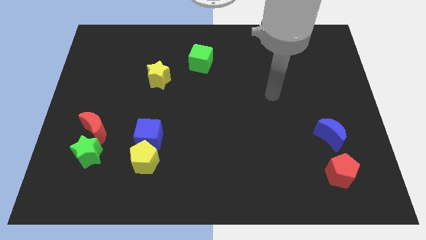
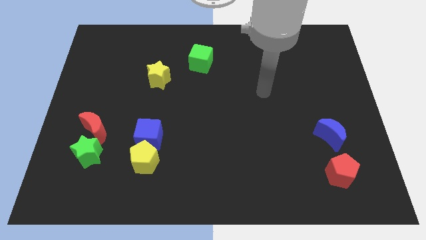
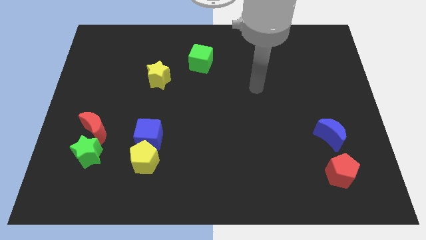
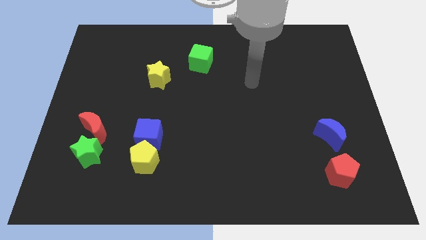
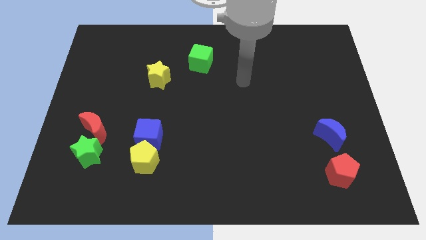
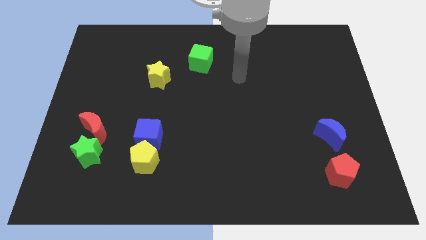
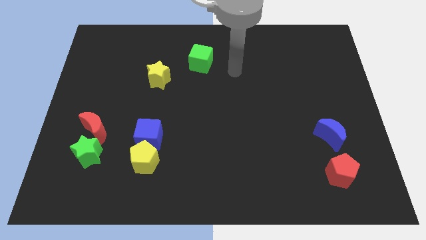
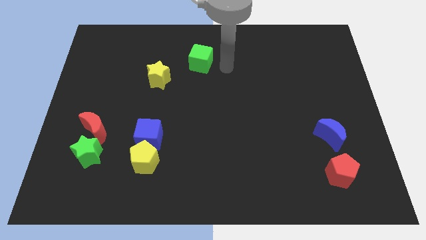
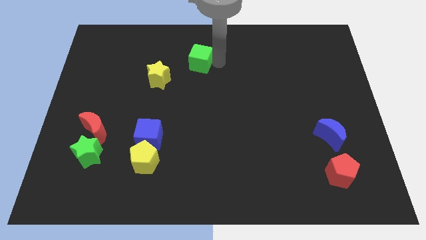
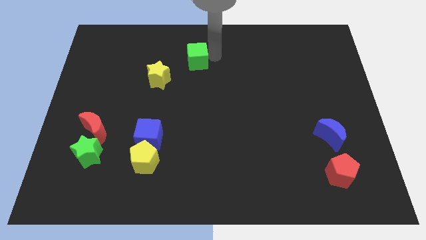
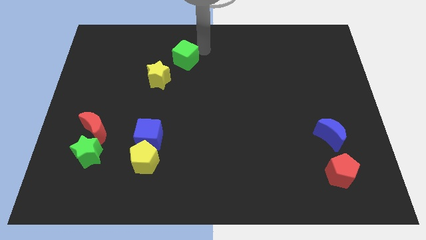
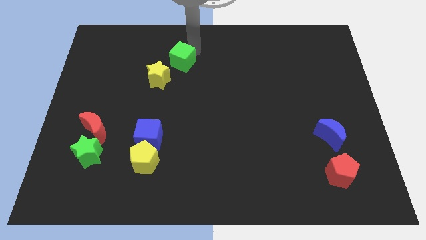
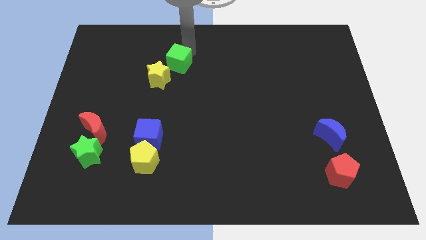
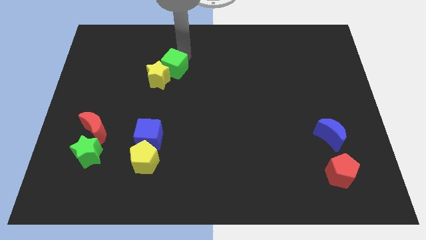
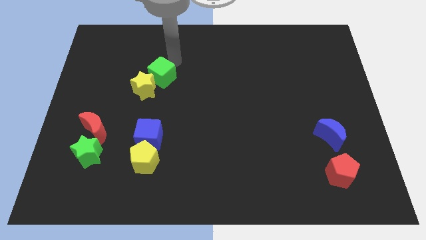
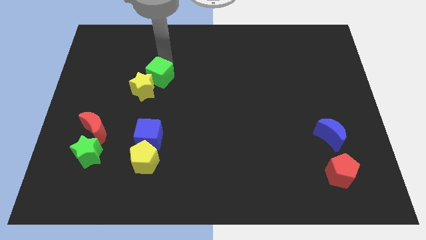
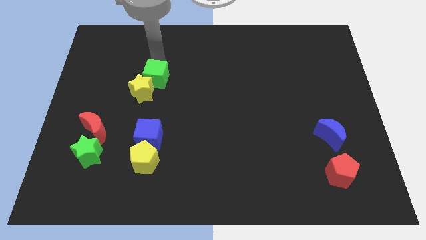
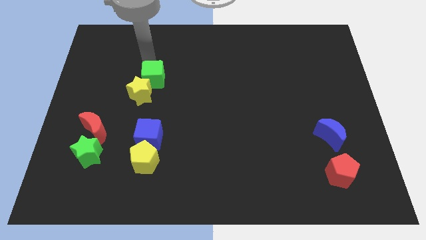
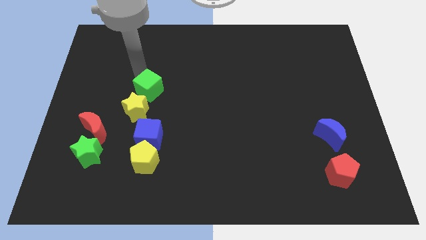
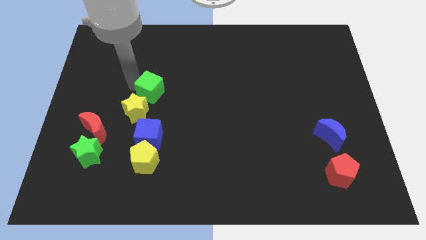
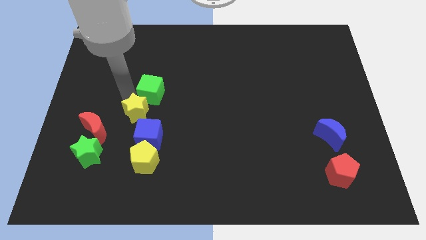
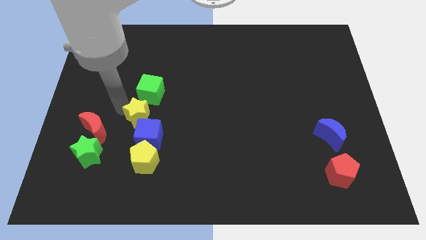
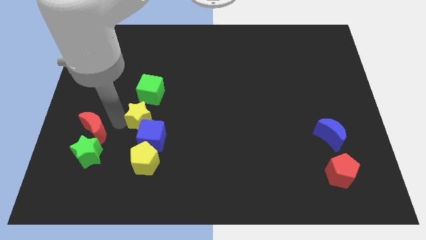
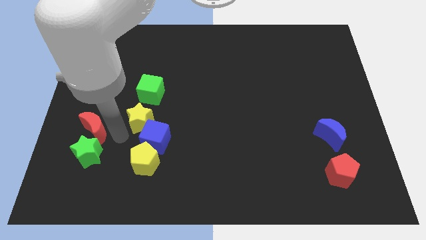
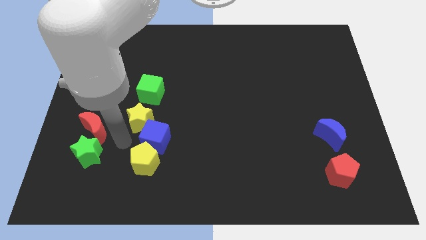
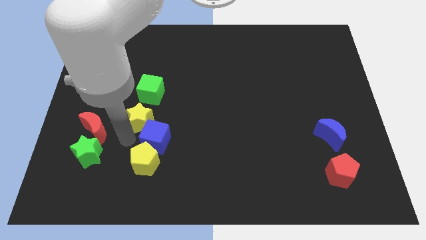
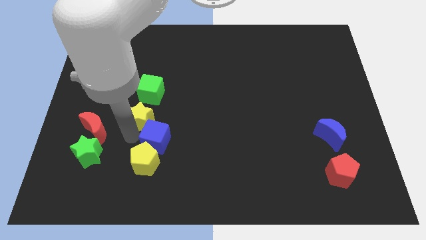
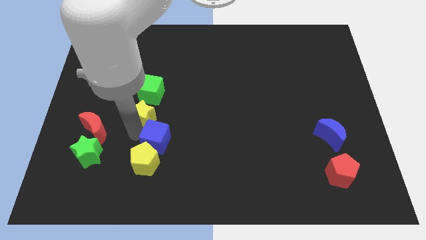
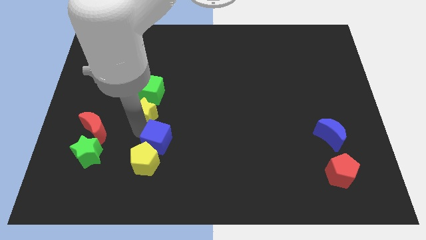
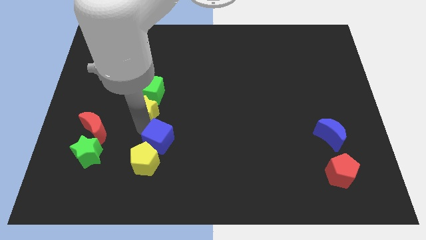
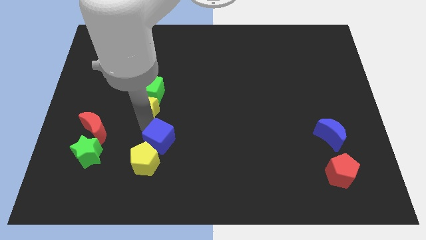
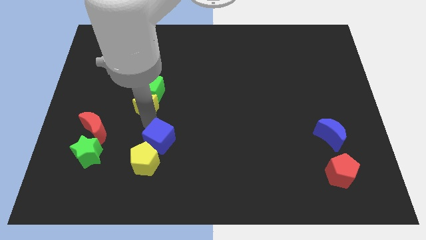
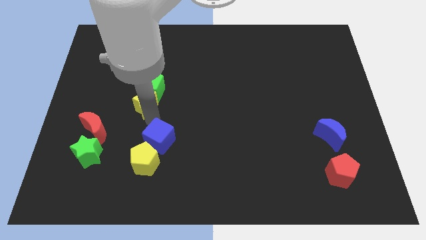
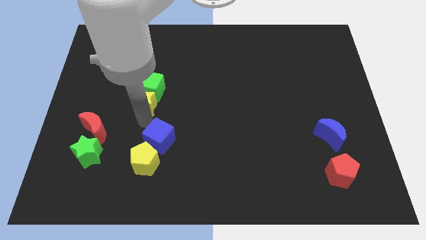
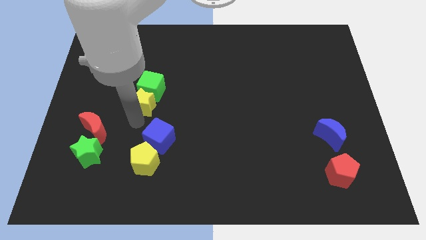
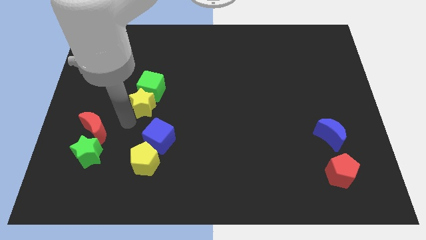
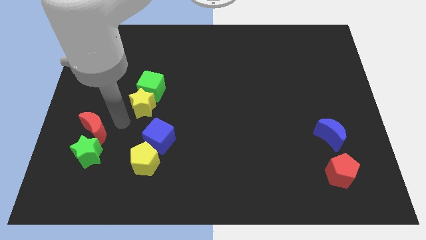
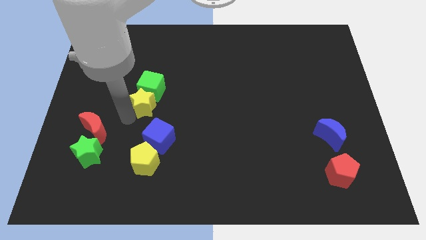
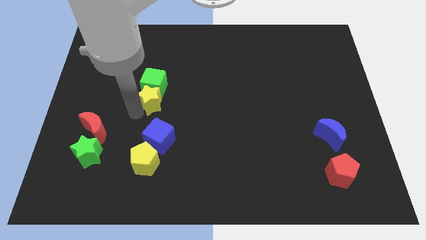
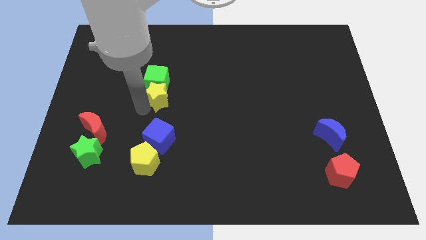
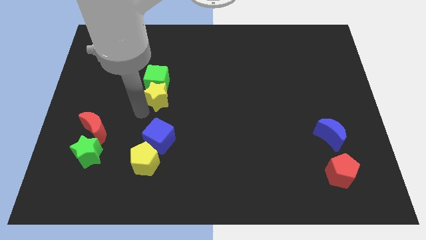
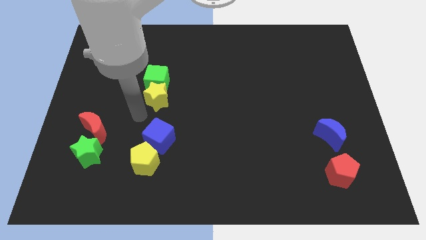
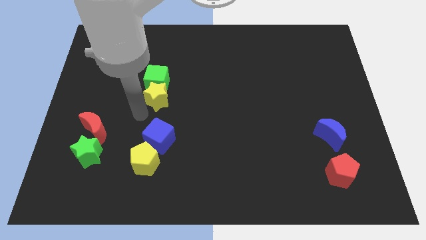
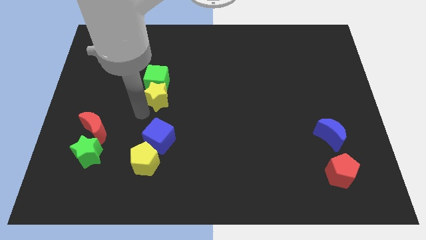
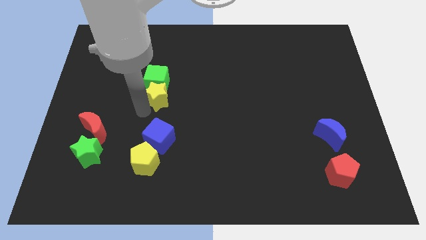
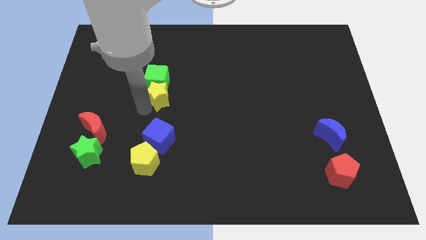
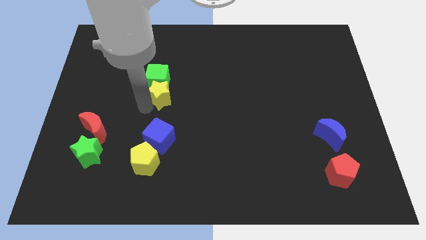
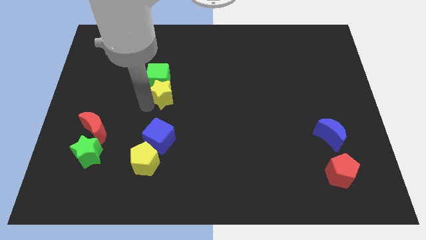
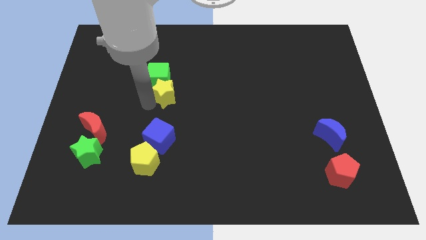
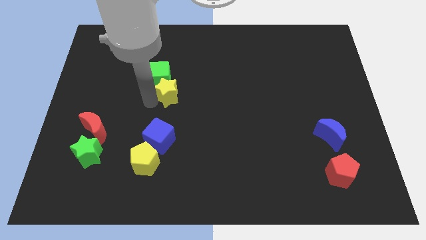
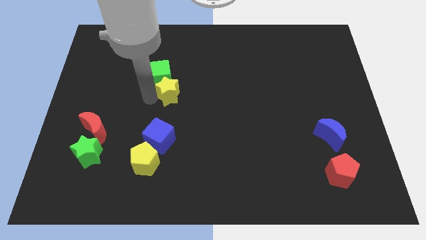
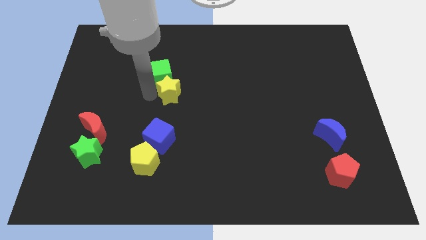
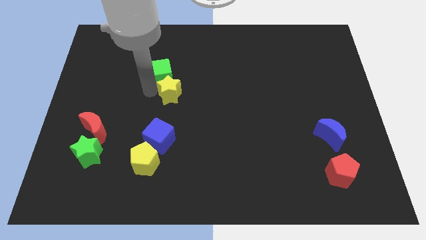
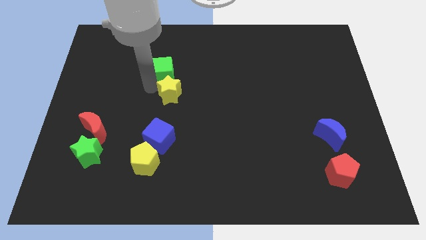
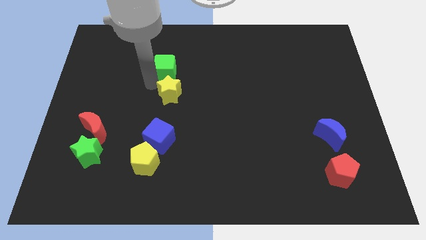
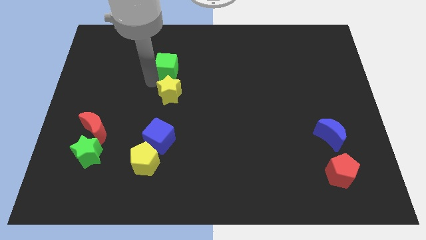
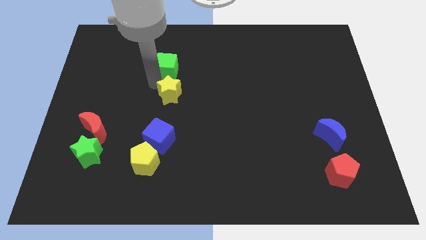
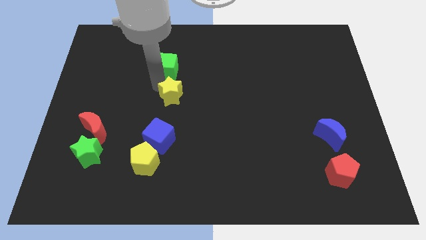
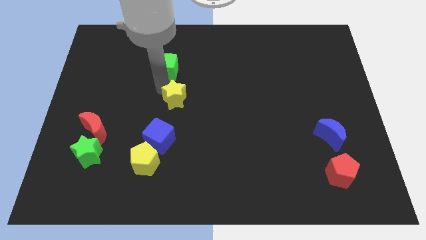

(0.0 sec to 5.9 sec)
slide the yellow star slightly diagonally downwards and right

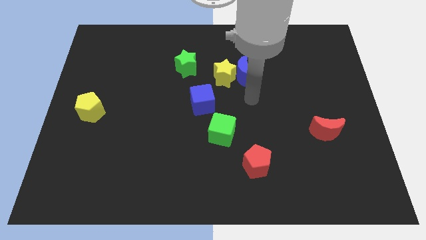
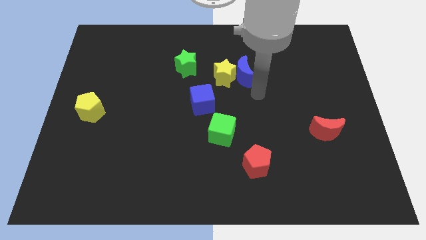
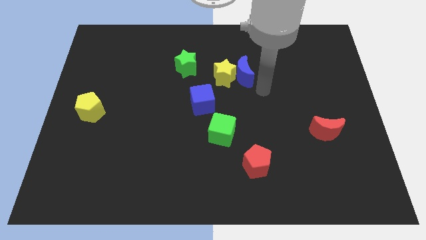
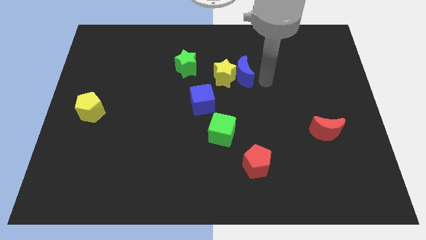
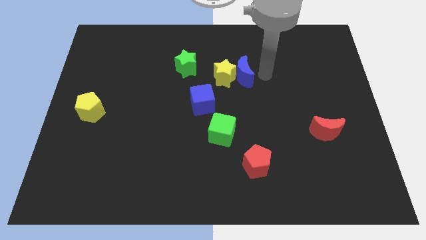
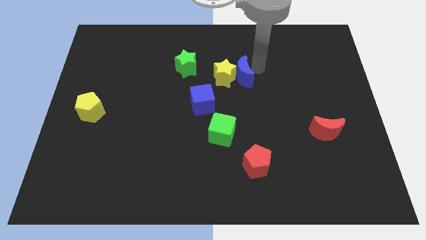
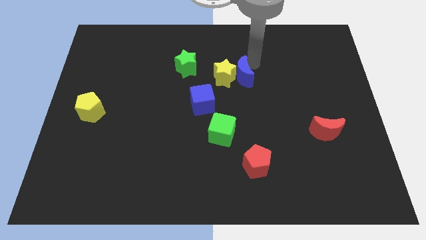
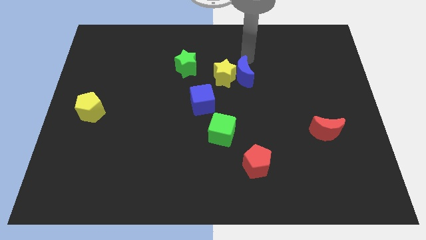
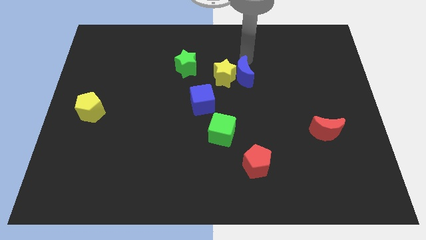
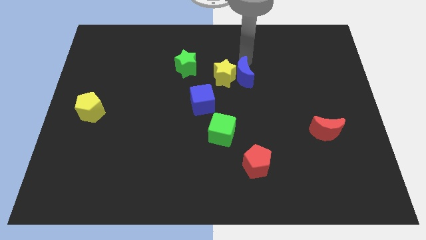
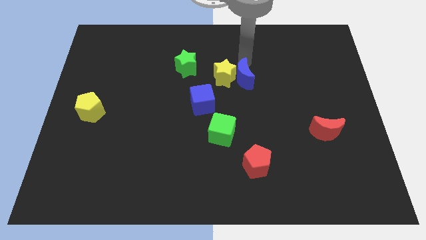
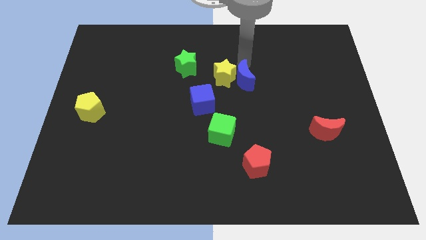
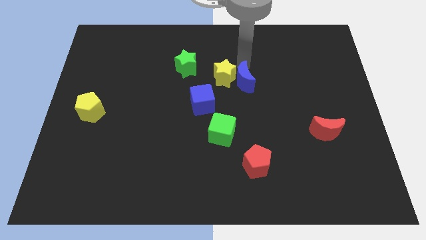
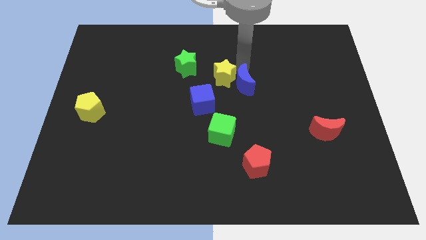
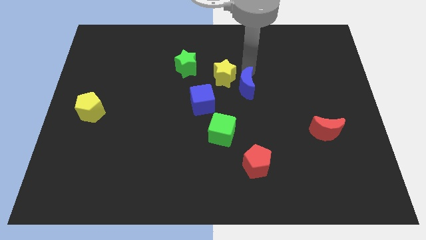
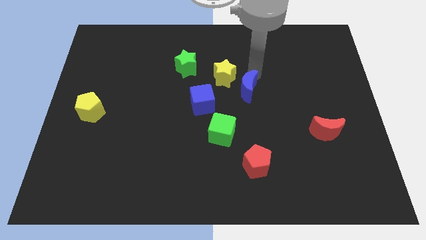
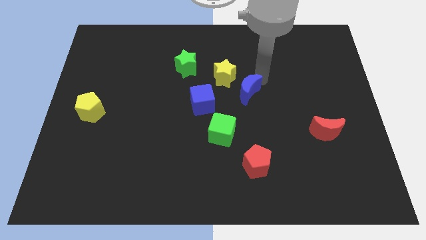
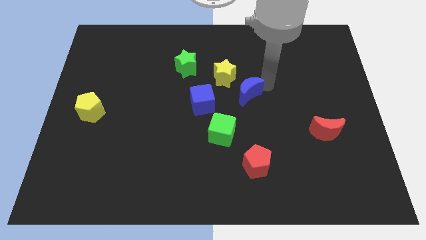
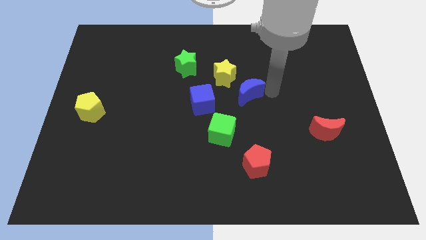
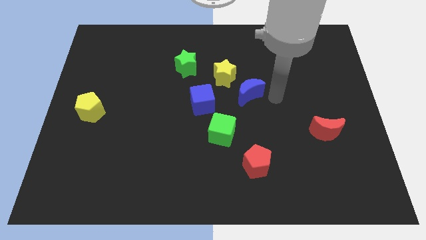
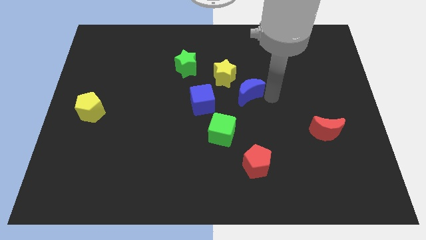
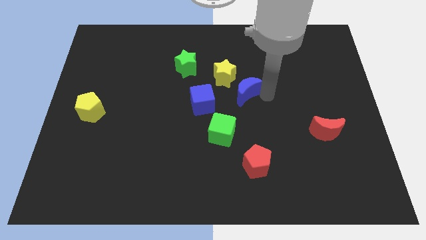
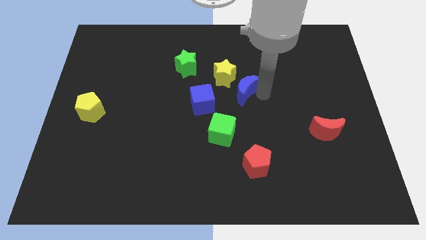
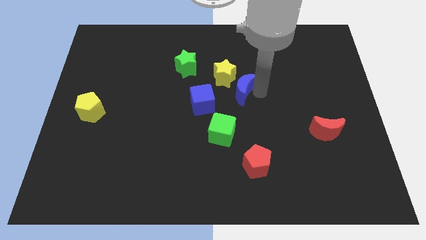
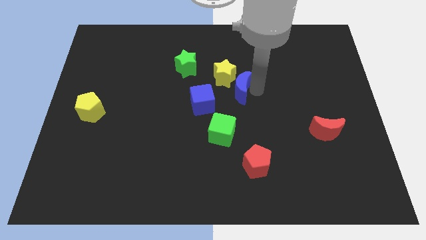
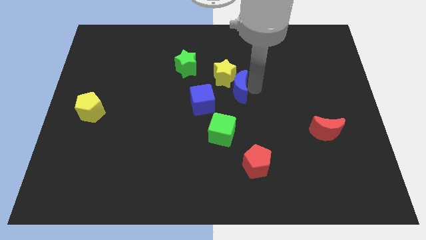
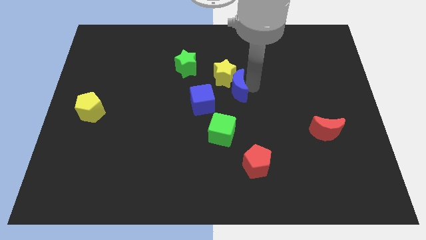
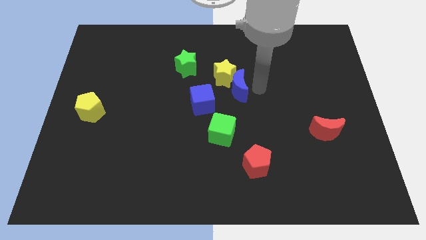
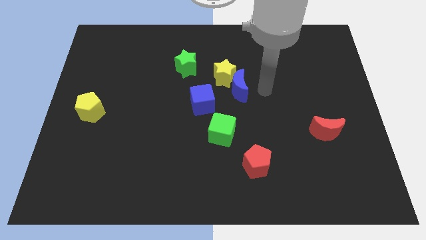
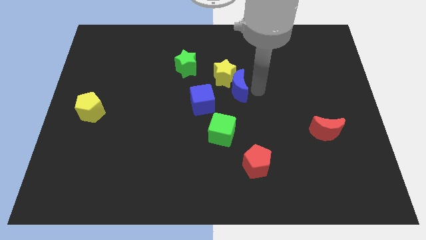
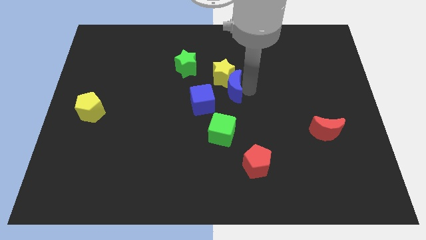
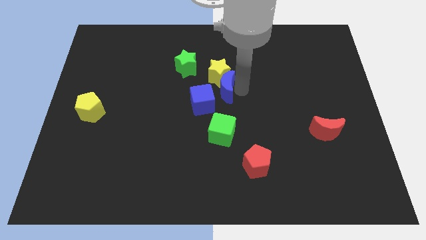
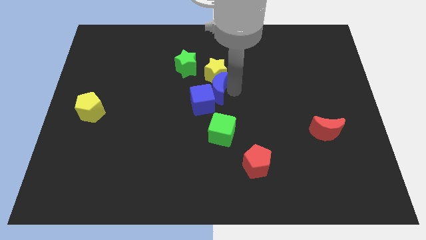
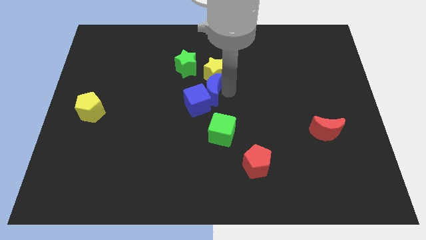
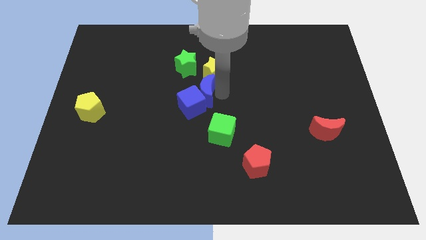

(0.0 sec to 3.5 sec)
push the blue moon left a little
